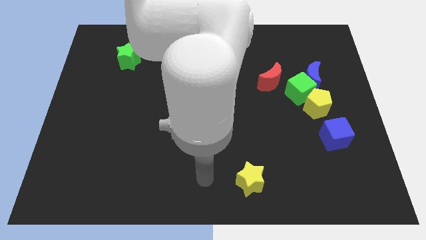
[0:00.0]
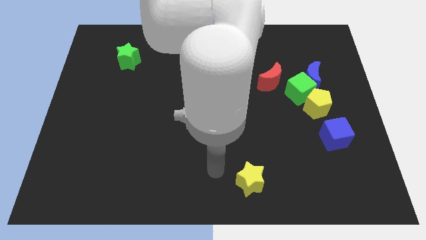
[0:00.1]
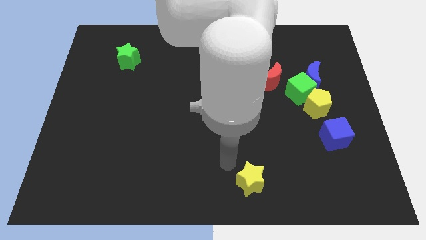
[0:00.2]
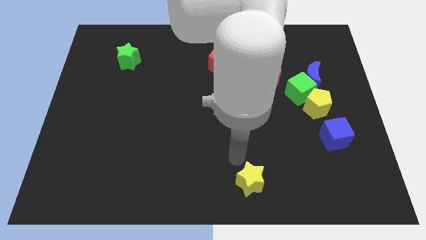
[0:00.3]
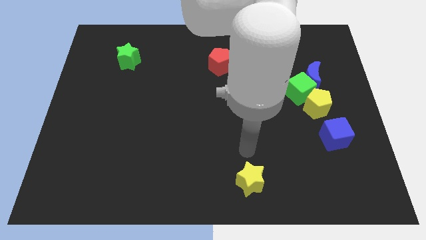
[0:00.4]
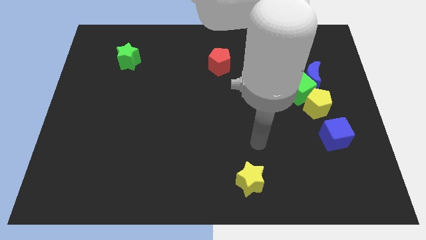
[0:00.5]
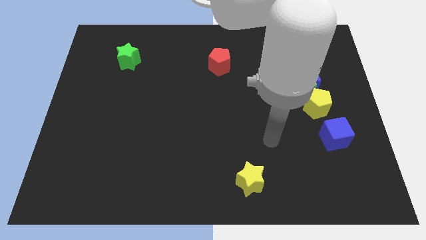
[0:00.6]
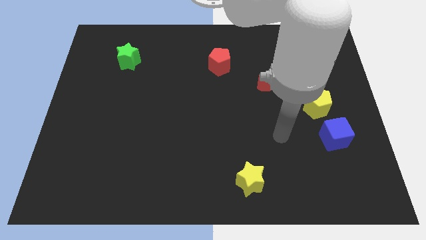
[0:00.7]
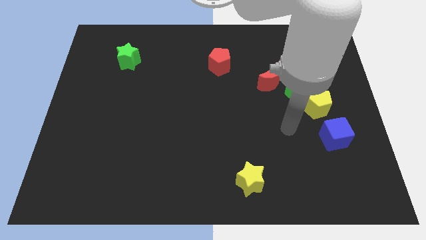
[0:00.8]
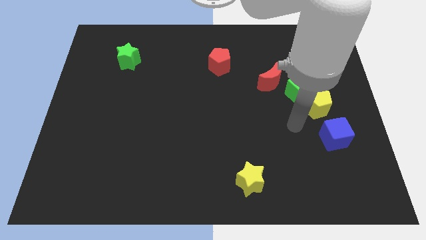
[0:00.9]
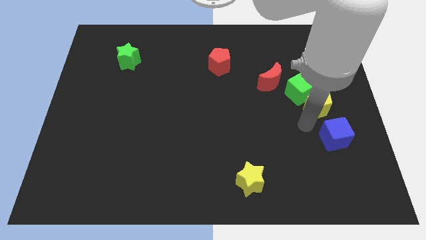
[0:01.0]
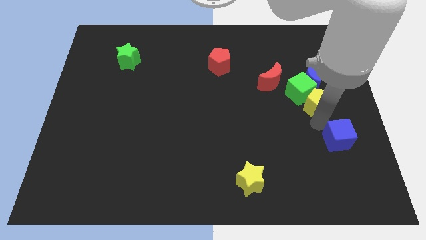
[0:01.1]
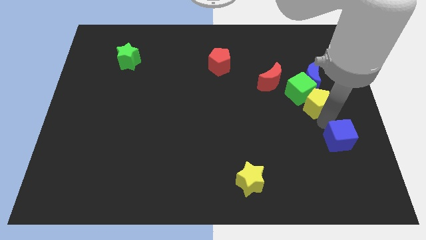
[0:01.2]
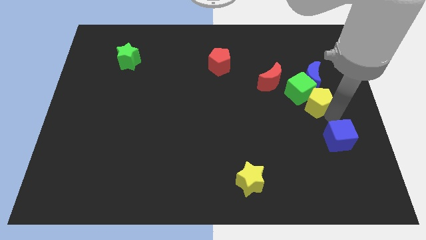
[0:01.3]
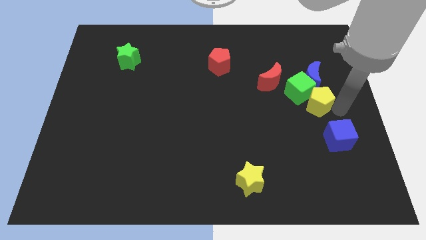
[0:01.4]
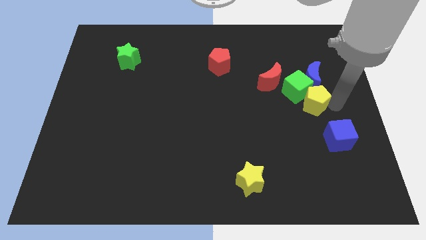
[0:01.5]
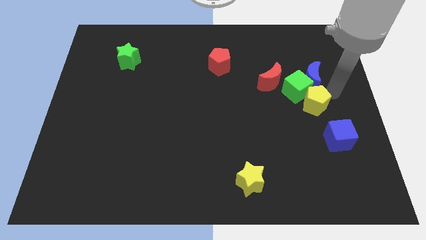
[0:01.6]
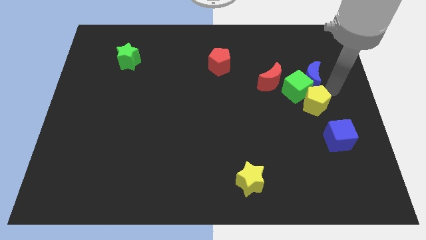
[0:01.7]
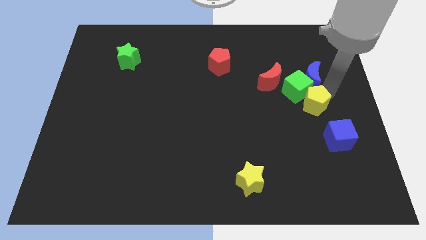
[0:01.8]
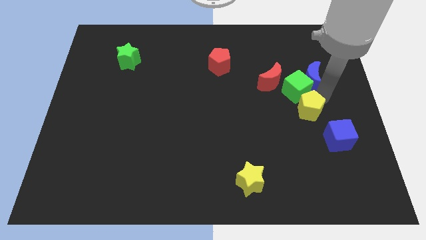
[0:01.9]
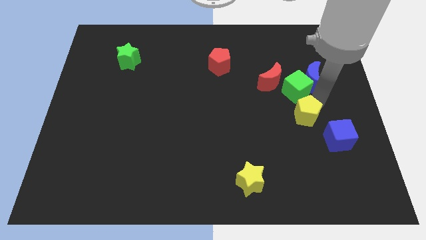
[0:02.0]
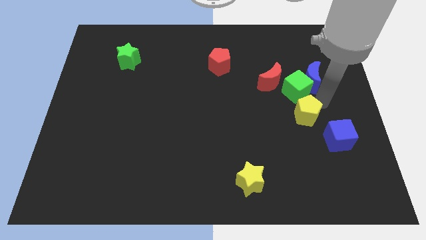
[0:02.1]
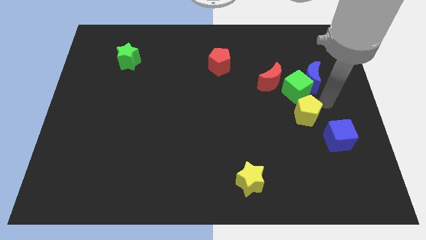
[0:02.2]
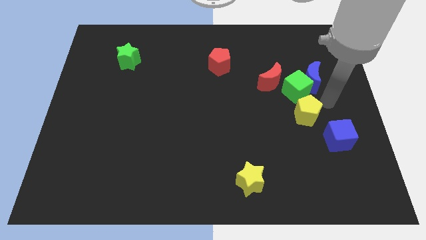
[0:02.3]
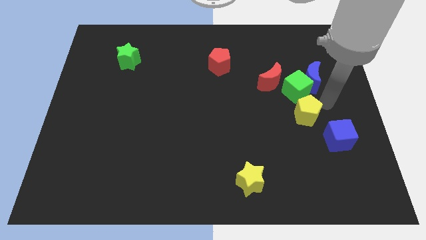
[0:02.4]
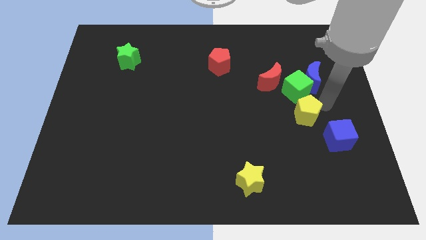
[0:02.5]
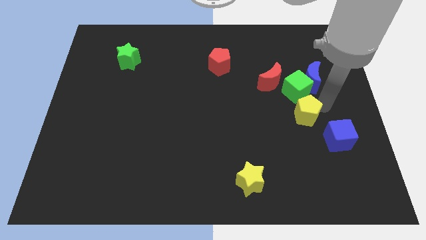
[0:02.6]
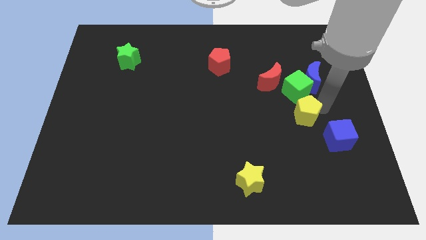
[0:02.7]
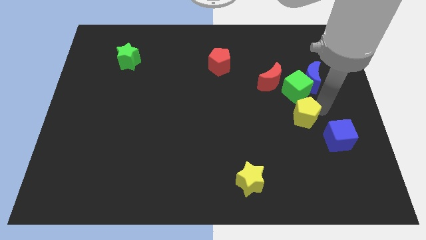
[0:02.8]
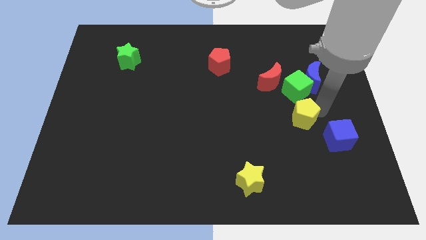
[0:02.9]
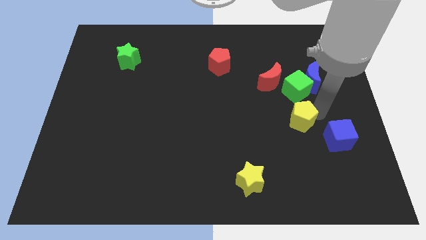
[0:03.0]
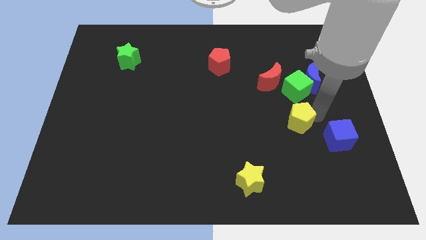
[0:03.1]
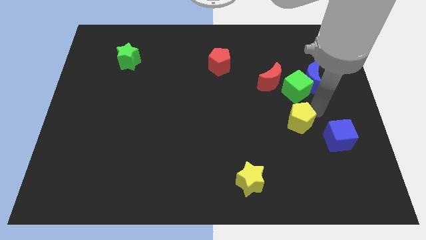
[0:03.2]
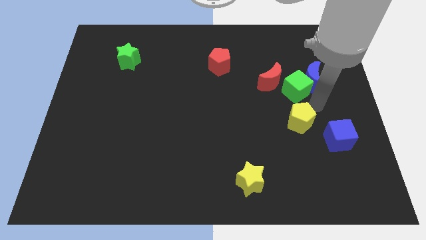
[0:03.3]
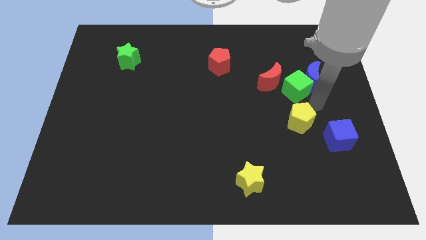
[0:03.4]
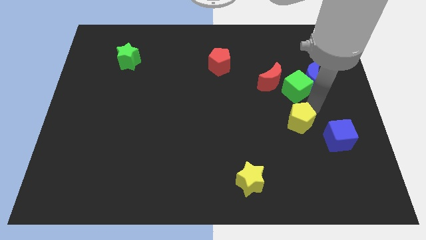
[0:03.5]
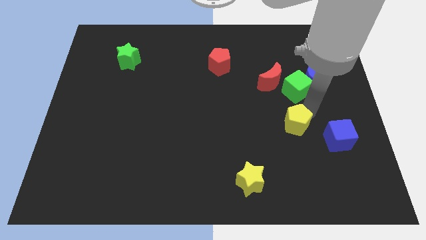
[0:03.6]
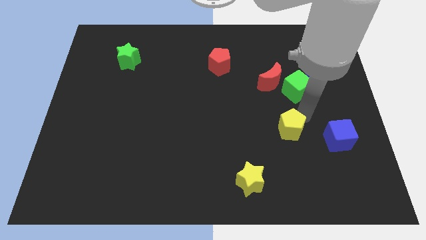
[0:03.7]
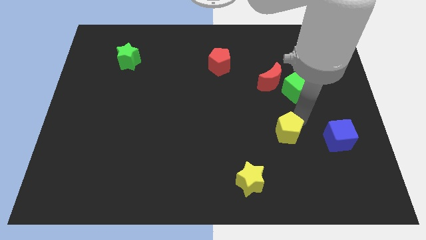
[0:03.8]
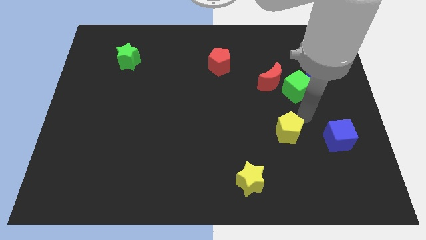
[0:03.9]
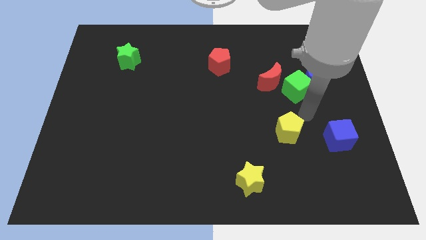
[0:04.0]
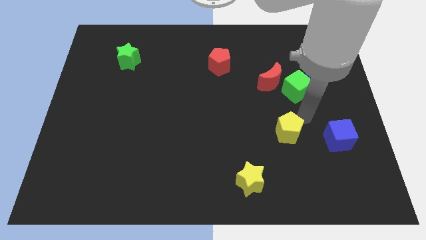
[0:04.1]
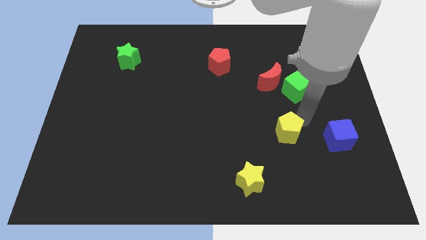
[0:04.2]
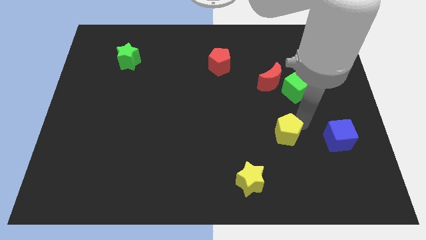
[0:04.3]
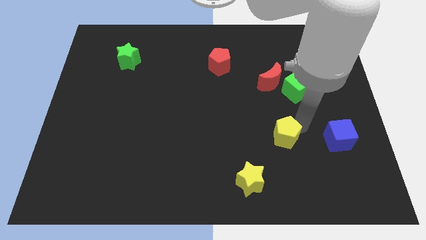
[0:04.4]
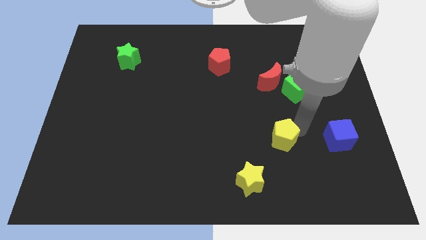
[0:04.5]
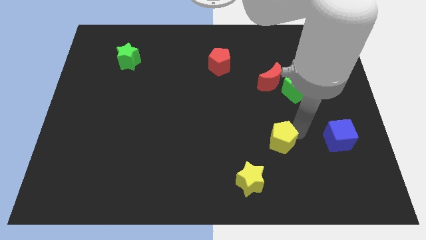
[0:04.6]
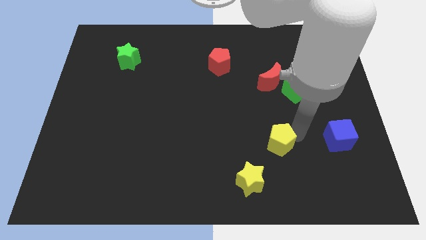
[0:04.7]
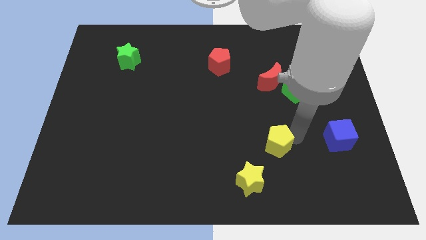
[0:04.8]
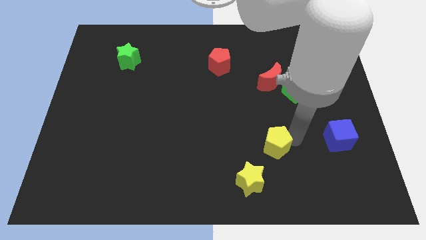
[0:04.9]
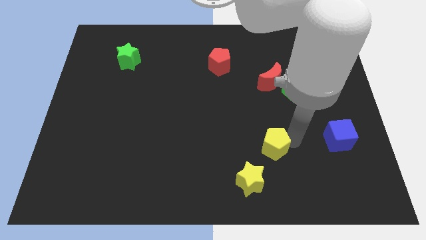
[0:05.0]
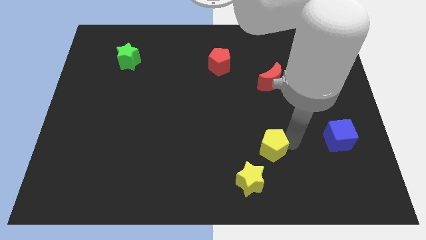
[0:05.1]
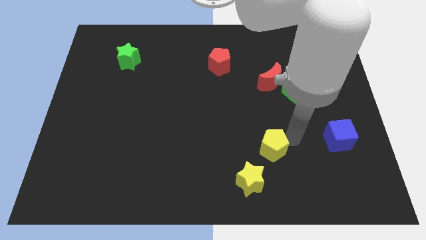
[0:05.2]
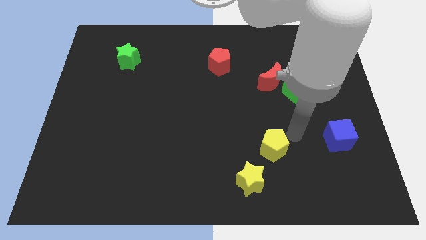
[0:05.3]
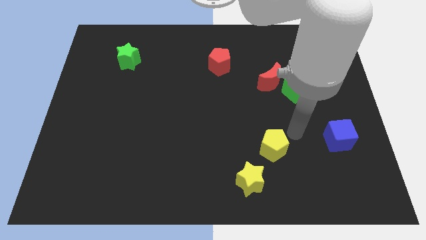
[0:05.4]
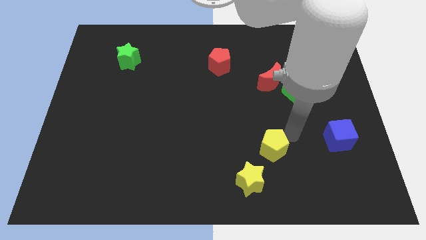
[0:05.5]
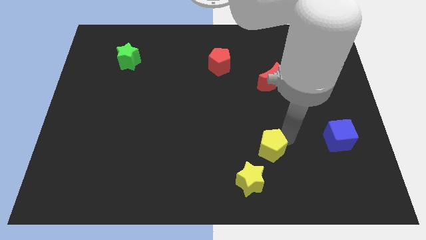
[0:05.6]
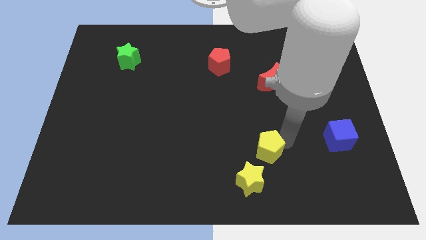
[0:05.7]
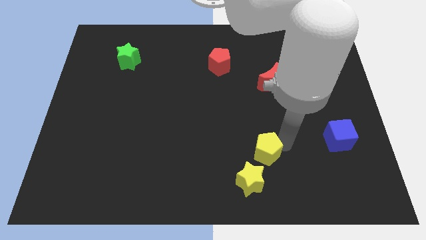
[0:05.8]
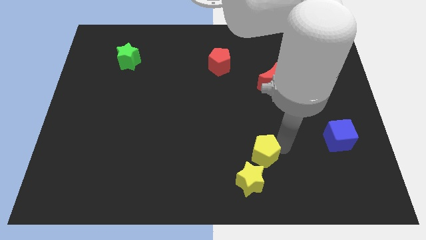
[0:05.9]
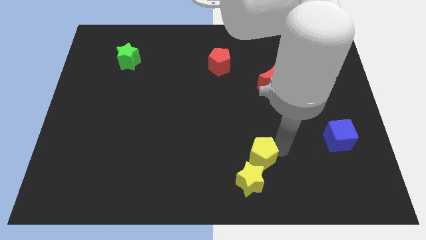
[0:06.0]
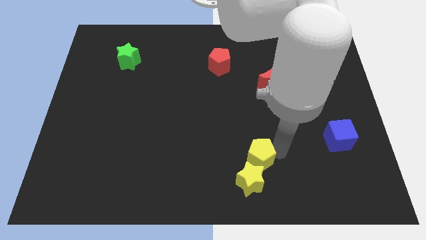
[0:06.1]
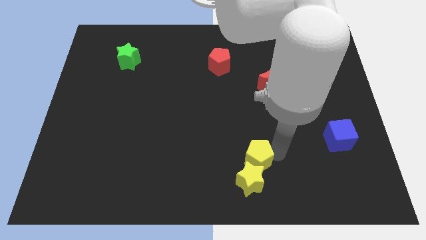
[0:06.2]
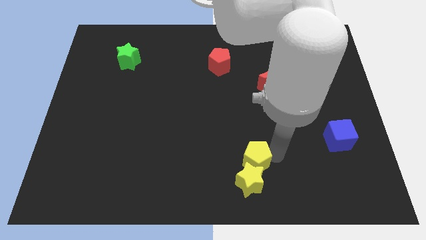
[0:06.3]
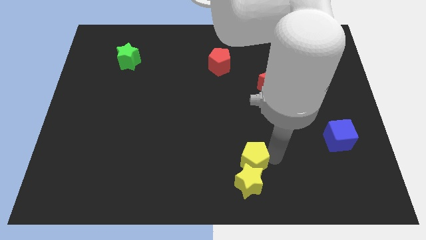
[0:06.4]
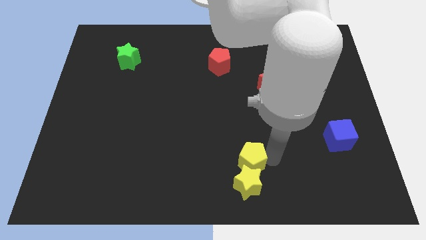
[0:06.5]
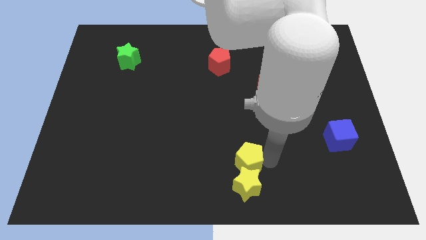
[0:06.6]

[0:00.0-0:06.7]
move the yellow pentagon to the bottom side
